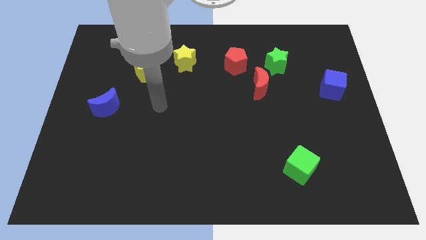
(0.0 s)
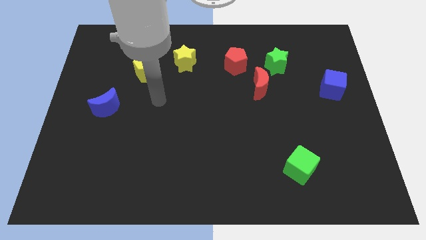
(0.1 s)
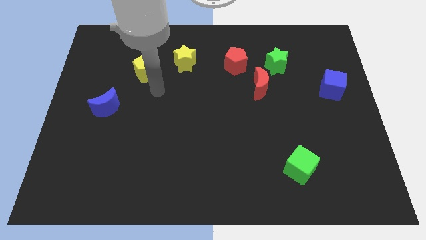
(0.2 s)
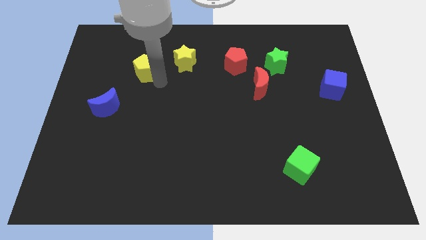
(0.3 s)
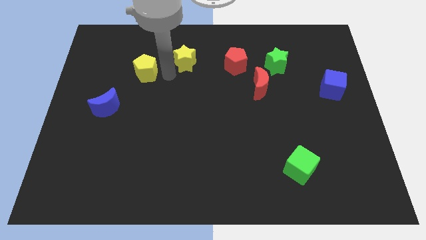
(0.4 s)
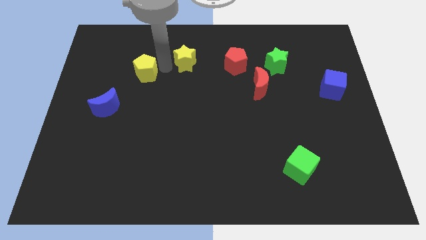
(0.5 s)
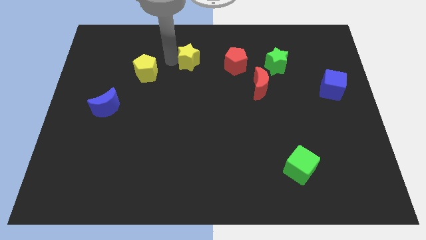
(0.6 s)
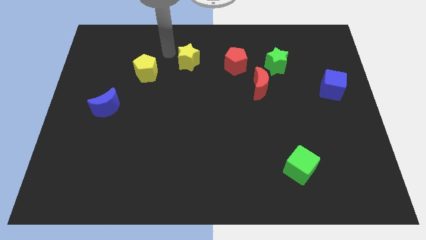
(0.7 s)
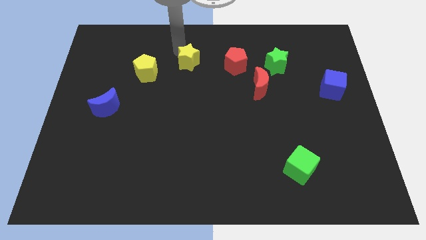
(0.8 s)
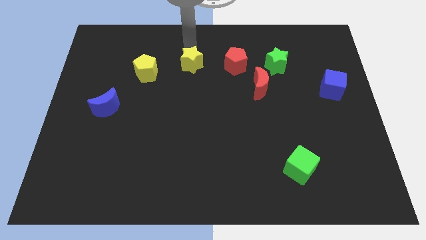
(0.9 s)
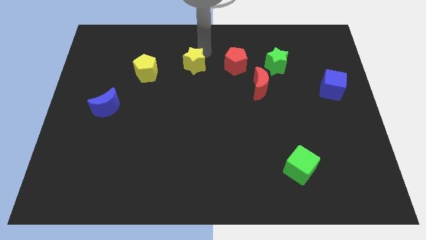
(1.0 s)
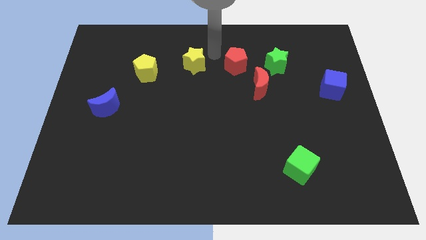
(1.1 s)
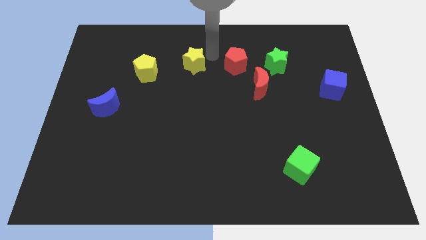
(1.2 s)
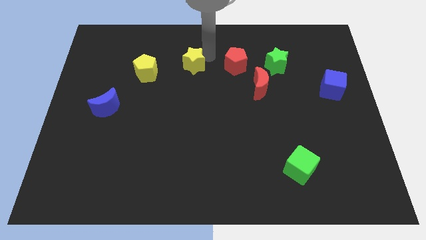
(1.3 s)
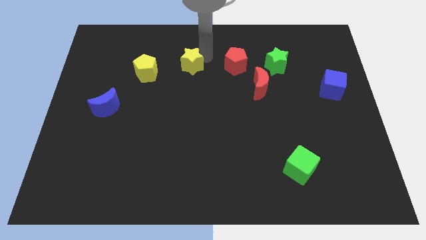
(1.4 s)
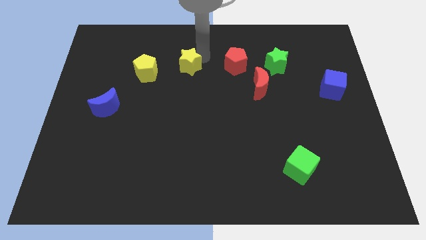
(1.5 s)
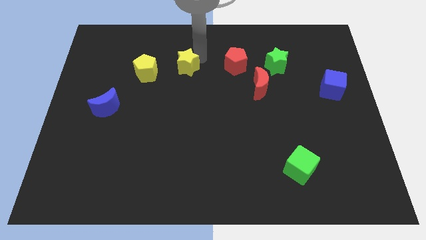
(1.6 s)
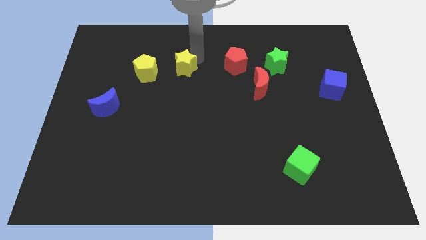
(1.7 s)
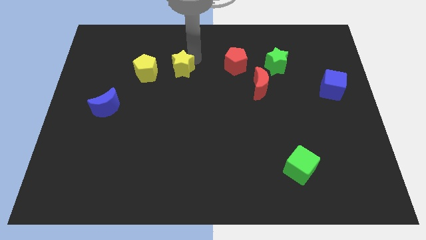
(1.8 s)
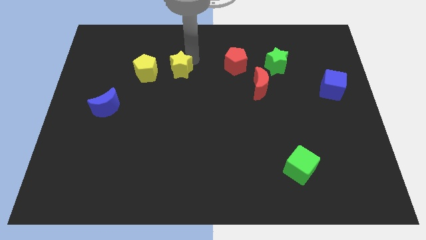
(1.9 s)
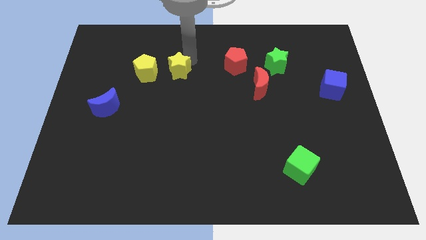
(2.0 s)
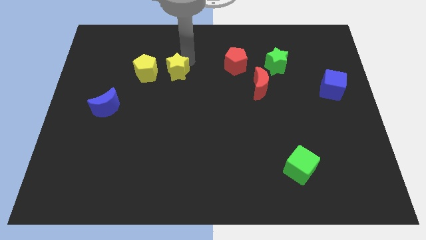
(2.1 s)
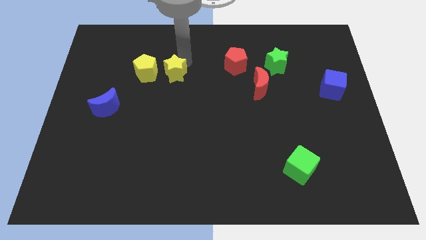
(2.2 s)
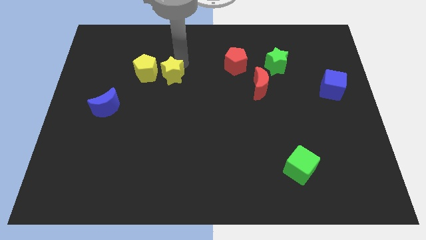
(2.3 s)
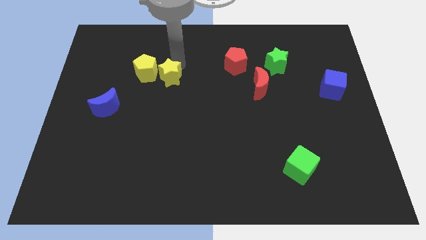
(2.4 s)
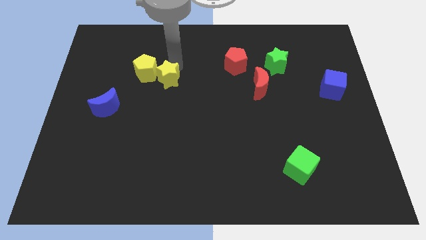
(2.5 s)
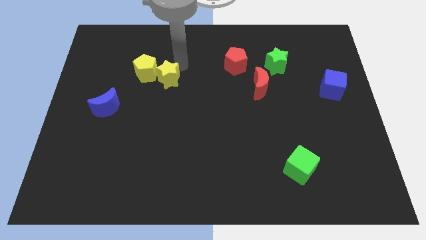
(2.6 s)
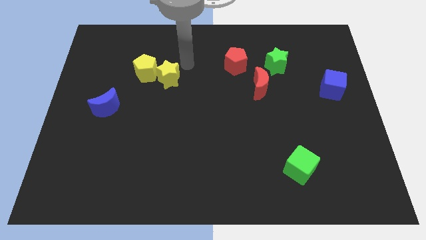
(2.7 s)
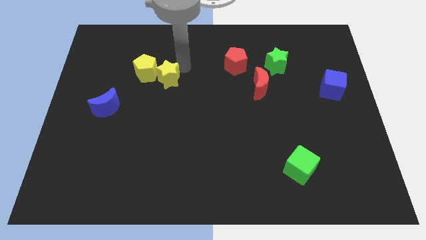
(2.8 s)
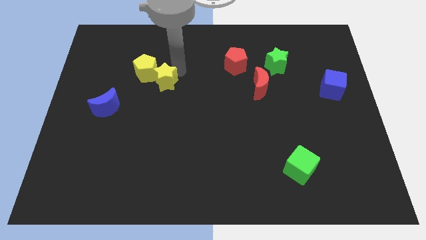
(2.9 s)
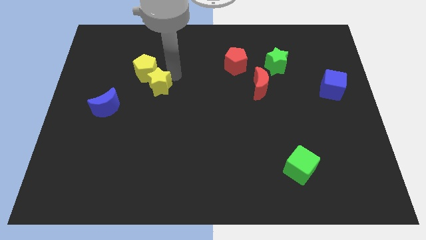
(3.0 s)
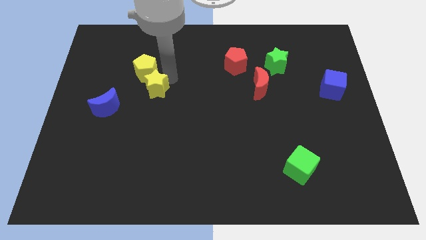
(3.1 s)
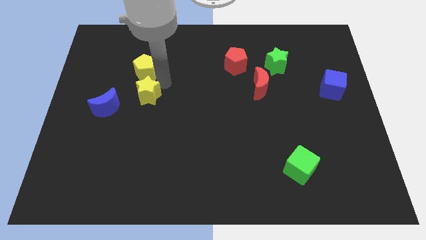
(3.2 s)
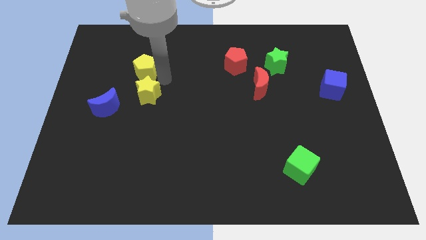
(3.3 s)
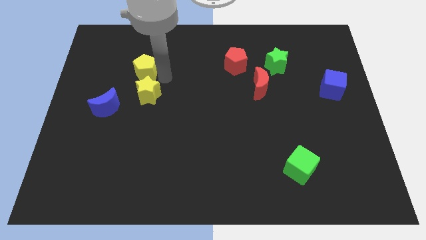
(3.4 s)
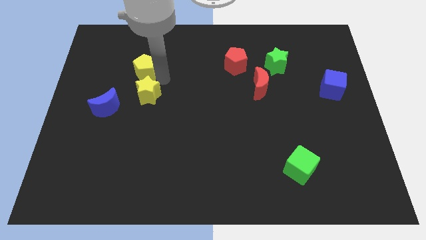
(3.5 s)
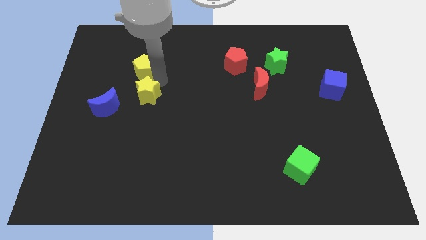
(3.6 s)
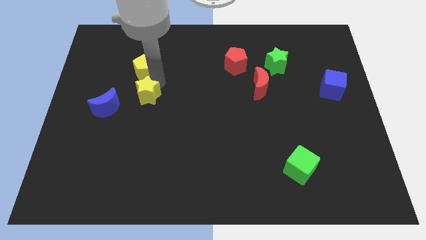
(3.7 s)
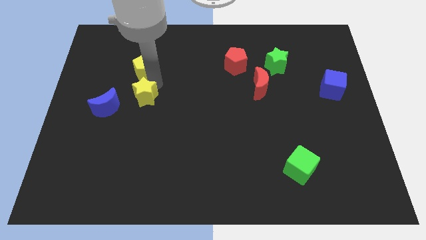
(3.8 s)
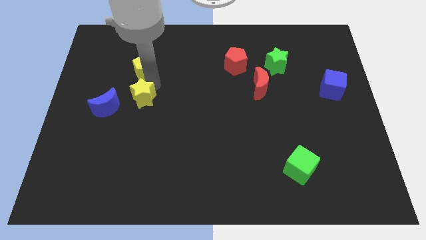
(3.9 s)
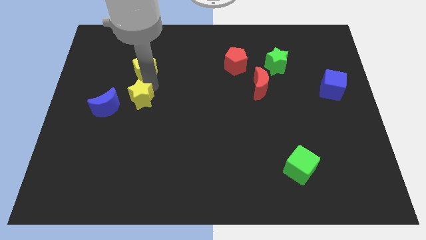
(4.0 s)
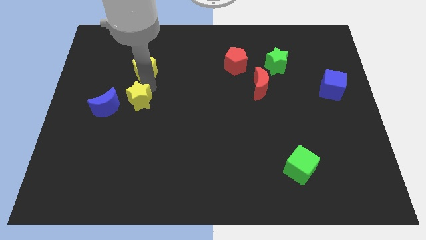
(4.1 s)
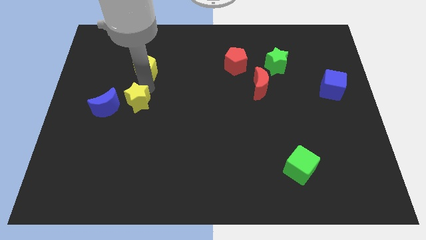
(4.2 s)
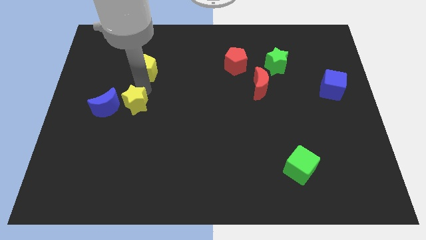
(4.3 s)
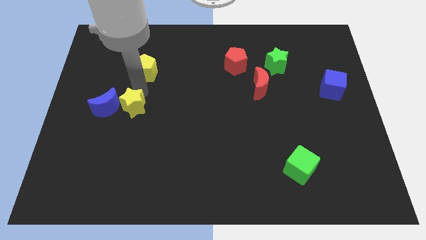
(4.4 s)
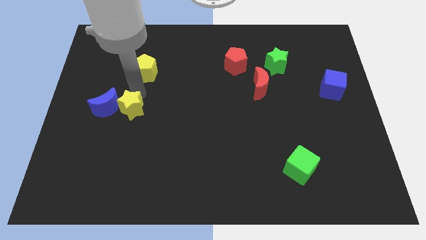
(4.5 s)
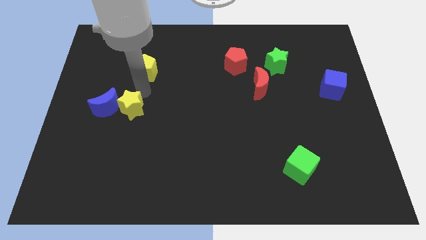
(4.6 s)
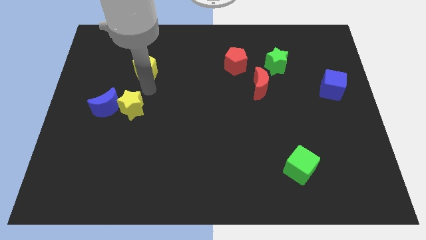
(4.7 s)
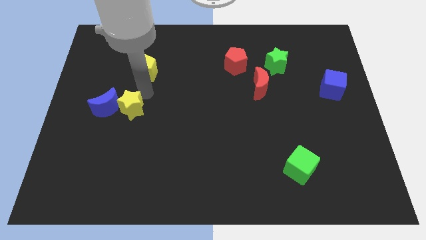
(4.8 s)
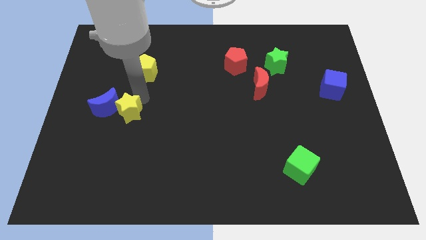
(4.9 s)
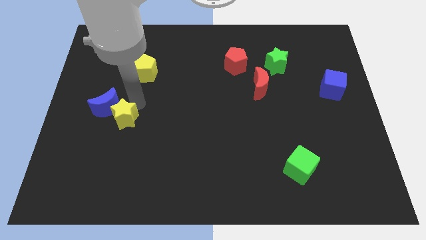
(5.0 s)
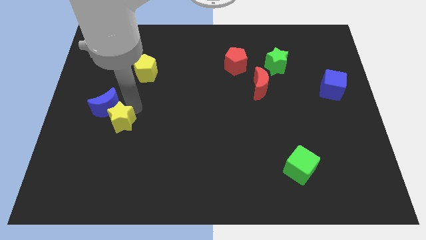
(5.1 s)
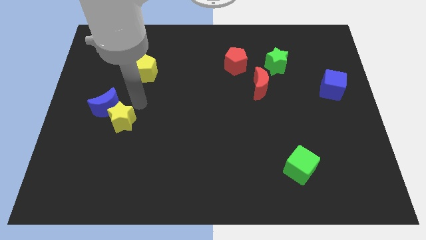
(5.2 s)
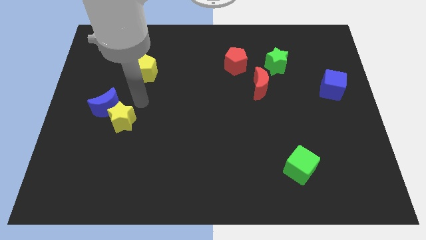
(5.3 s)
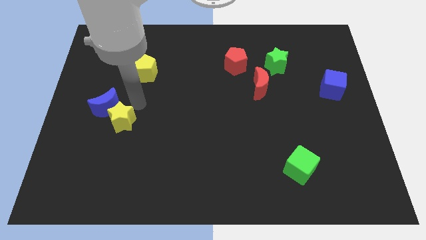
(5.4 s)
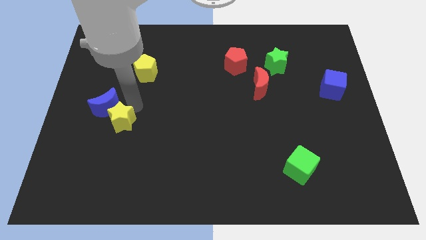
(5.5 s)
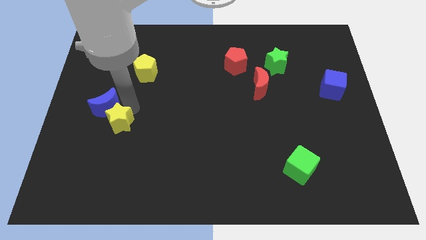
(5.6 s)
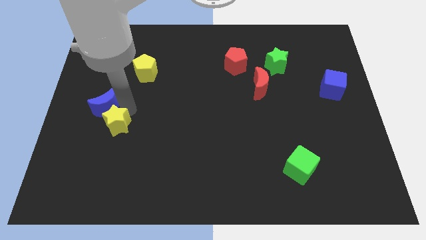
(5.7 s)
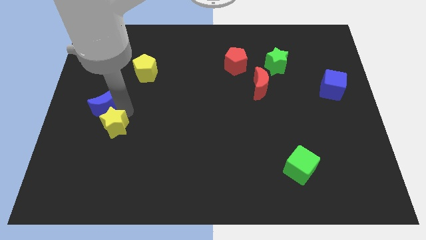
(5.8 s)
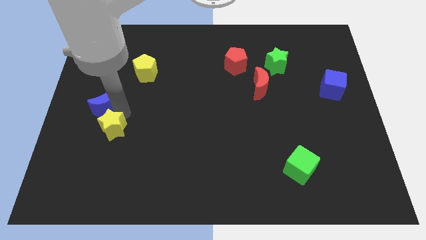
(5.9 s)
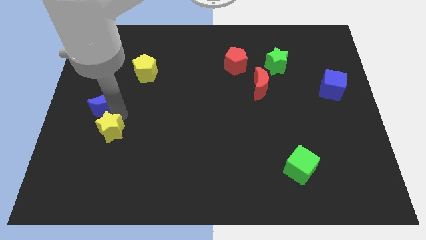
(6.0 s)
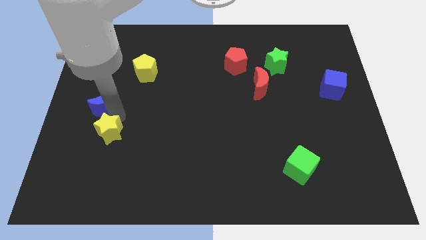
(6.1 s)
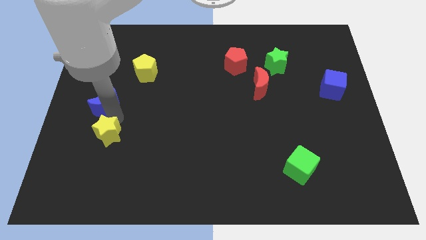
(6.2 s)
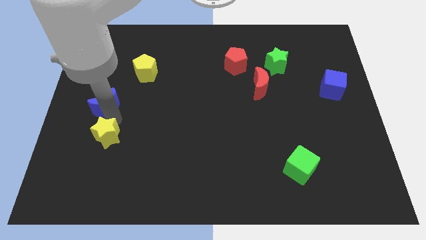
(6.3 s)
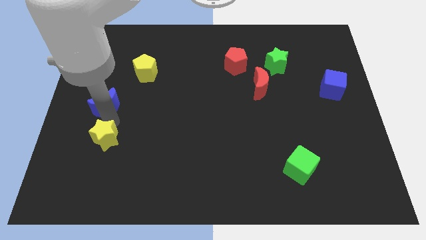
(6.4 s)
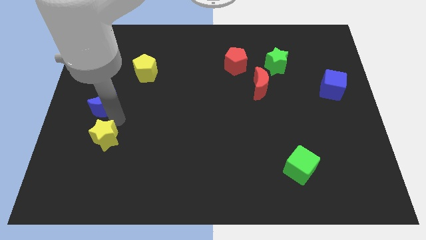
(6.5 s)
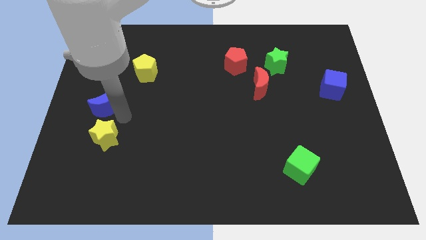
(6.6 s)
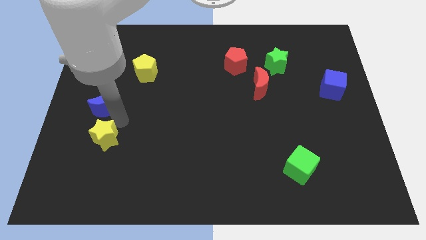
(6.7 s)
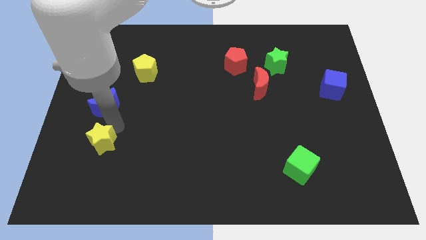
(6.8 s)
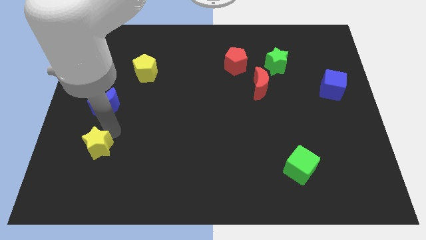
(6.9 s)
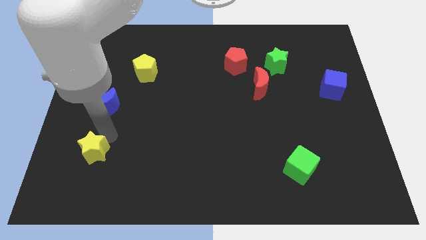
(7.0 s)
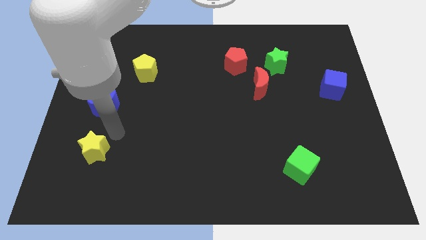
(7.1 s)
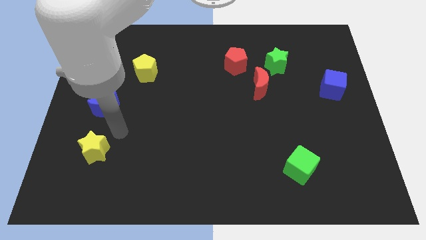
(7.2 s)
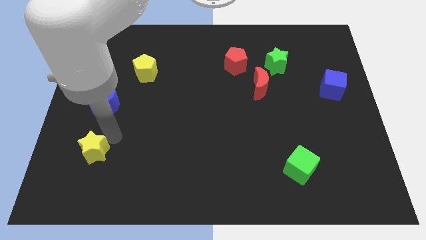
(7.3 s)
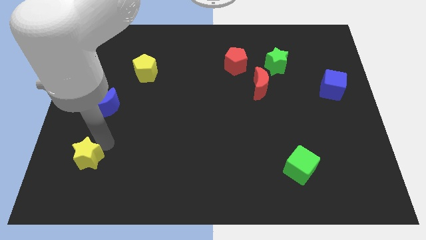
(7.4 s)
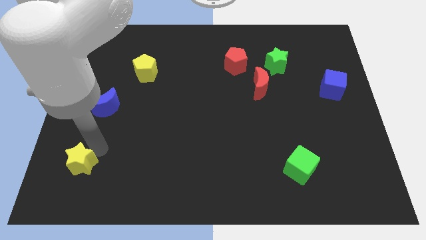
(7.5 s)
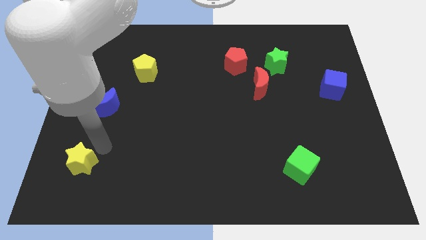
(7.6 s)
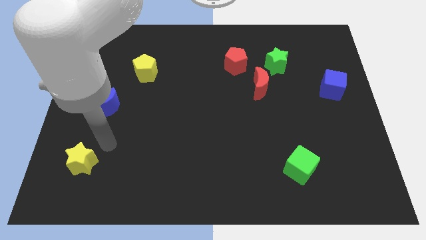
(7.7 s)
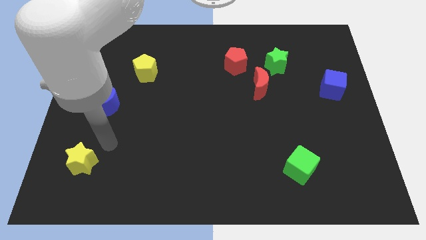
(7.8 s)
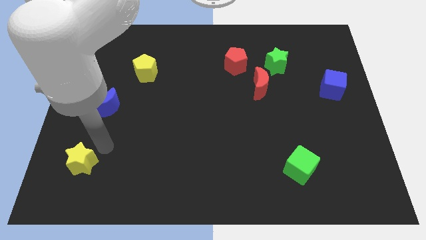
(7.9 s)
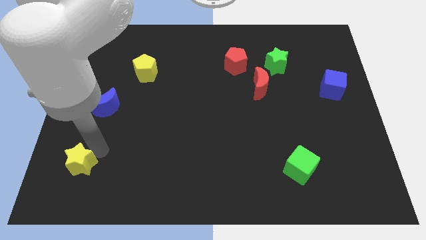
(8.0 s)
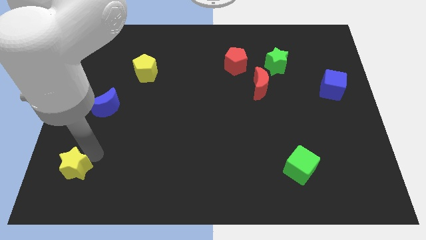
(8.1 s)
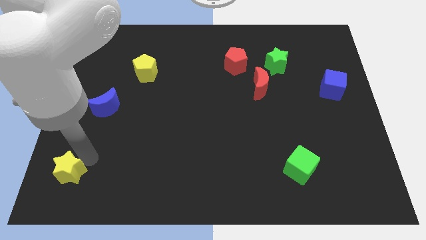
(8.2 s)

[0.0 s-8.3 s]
push the yellow star to the lower left corner
